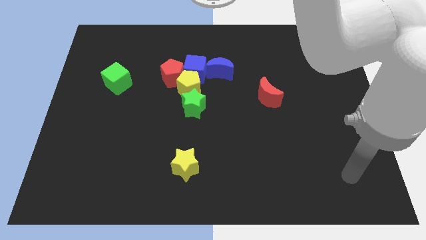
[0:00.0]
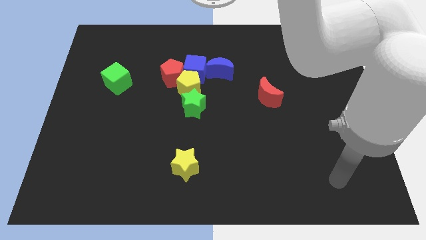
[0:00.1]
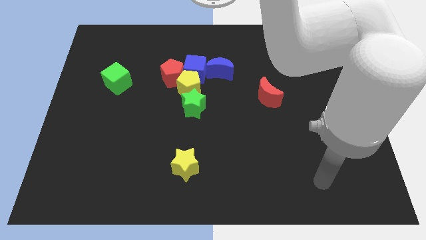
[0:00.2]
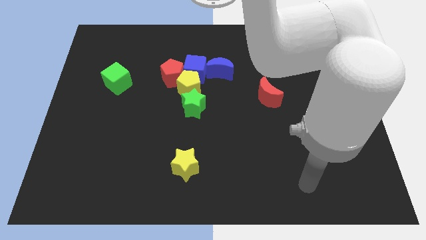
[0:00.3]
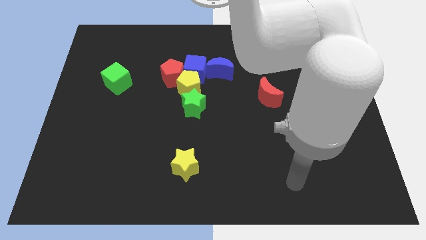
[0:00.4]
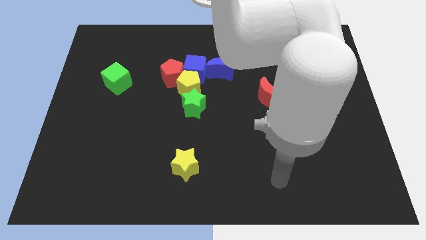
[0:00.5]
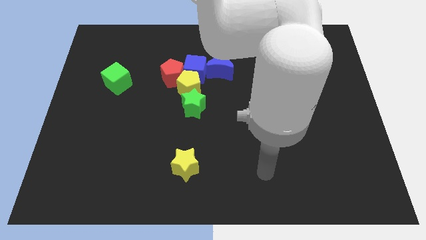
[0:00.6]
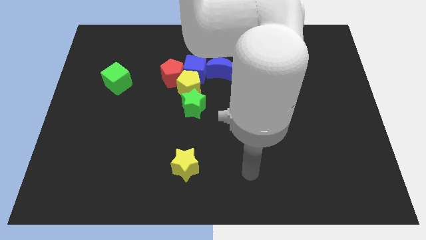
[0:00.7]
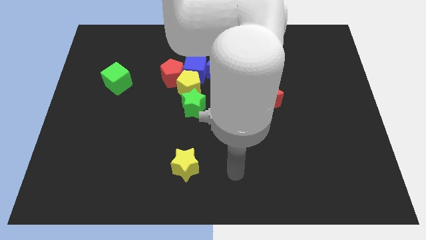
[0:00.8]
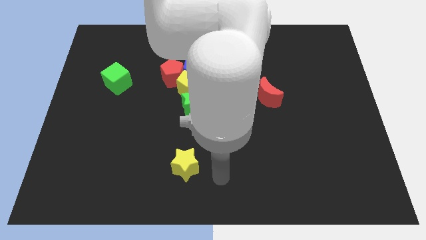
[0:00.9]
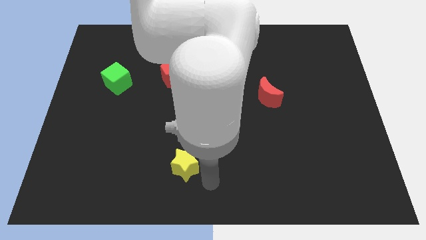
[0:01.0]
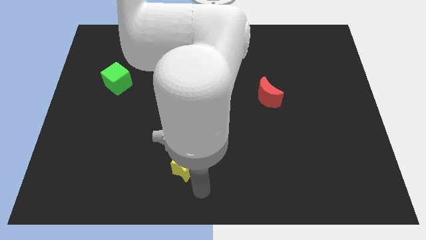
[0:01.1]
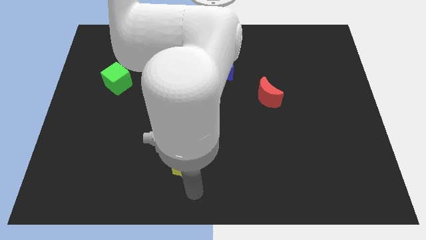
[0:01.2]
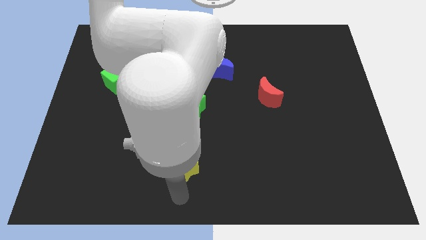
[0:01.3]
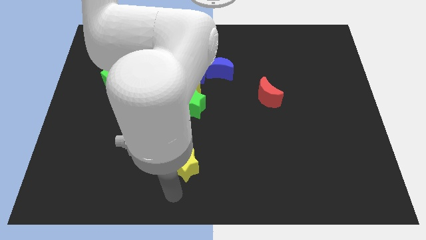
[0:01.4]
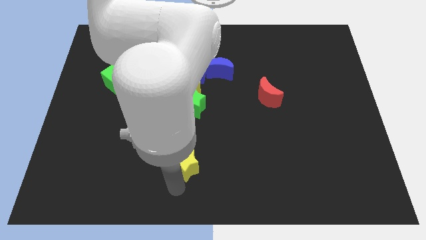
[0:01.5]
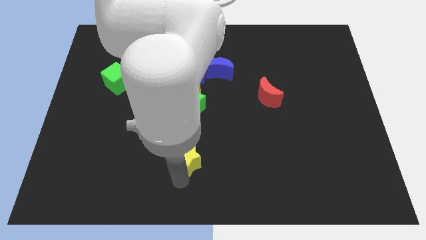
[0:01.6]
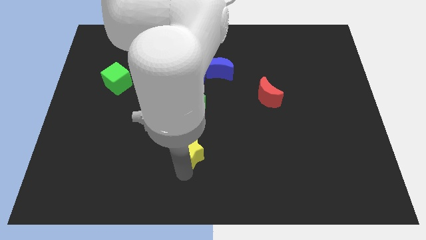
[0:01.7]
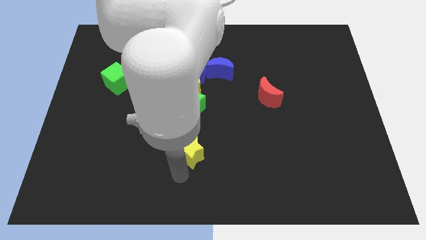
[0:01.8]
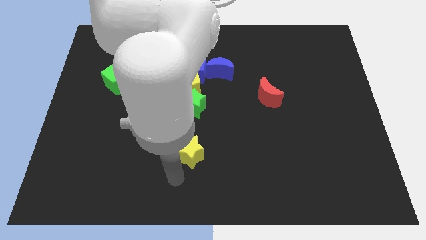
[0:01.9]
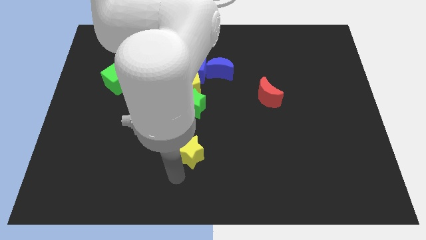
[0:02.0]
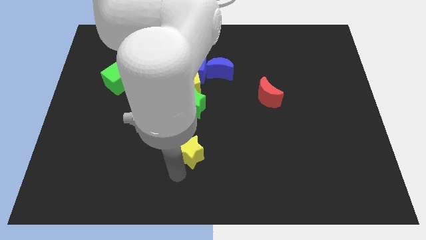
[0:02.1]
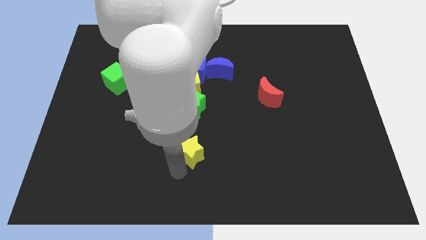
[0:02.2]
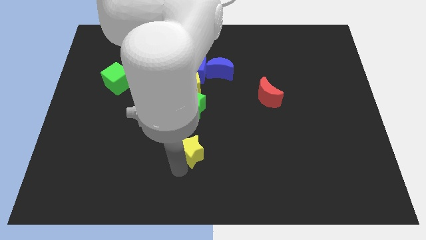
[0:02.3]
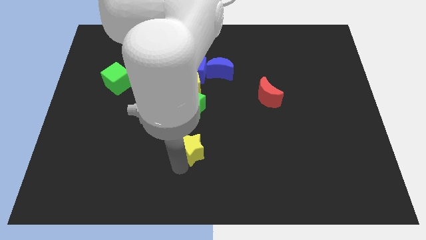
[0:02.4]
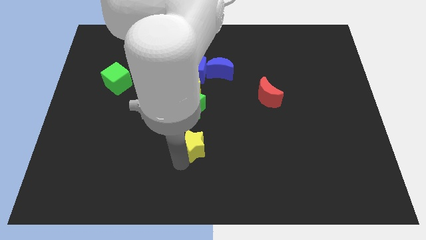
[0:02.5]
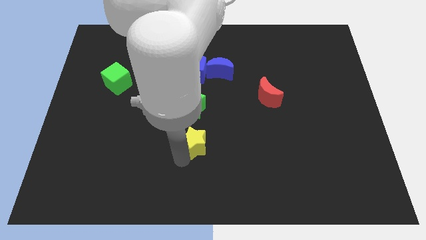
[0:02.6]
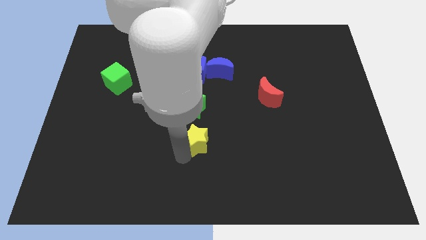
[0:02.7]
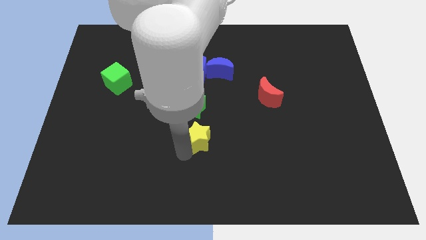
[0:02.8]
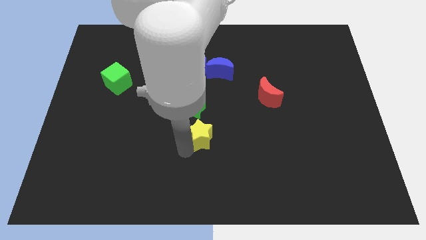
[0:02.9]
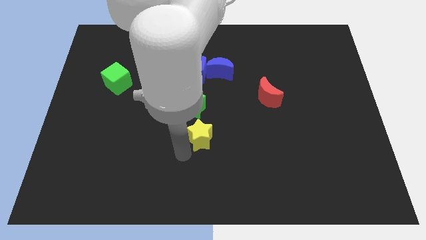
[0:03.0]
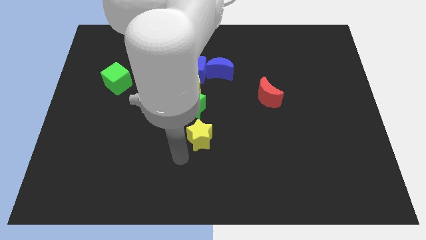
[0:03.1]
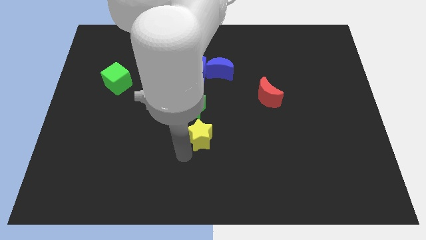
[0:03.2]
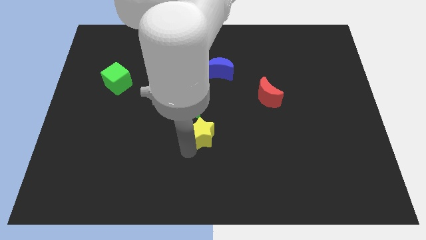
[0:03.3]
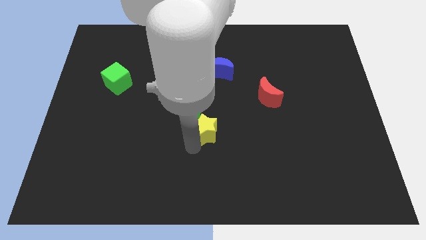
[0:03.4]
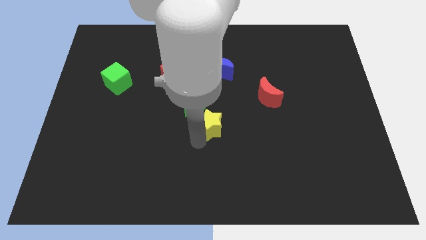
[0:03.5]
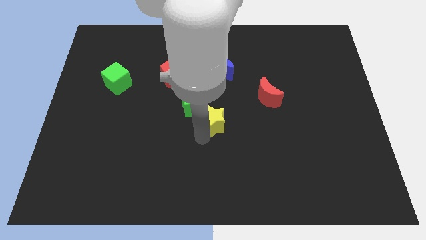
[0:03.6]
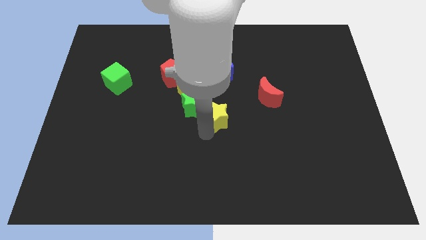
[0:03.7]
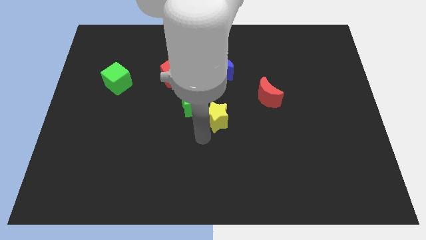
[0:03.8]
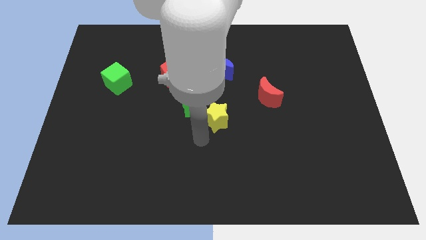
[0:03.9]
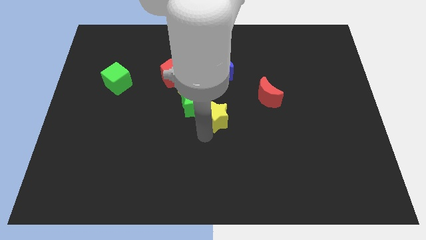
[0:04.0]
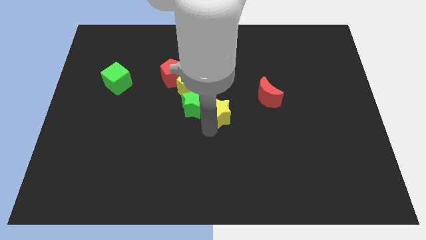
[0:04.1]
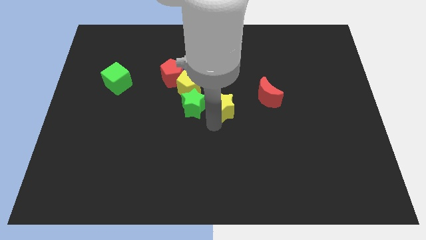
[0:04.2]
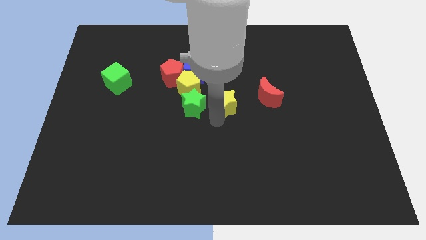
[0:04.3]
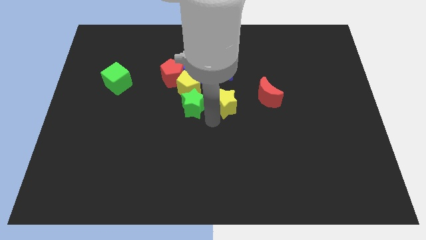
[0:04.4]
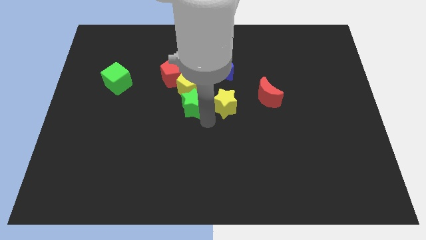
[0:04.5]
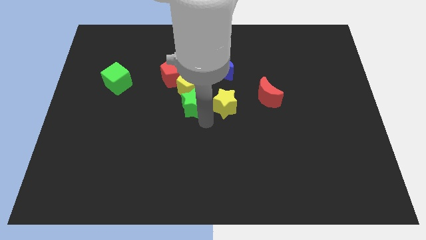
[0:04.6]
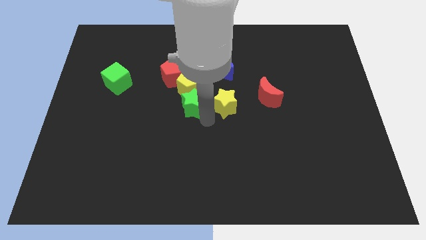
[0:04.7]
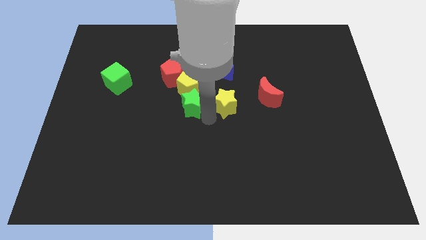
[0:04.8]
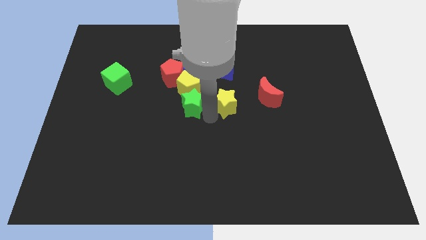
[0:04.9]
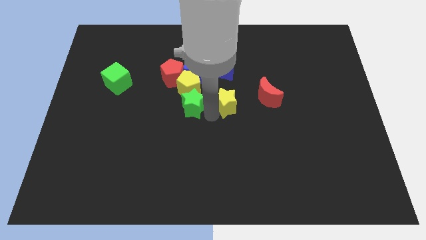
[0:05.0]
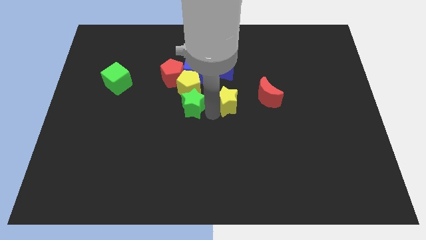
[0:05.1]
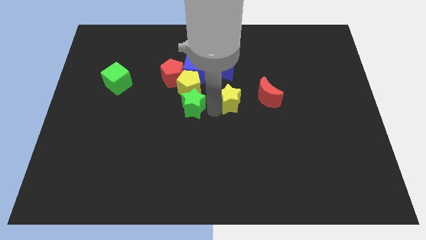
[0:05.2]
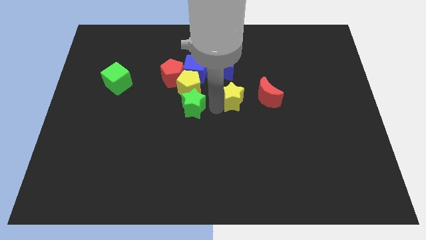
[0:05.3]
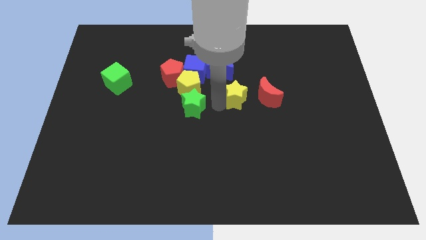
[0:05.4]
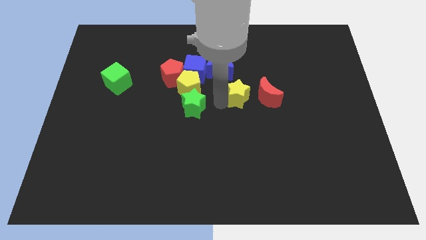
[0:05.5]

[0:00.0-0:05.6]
move the yellow star upwards and then to the right

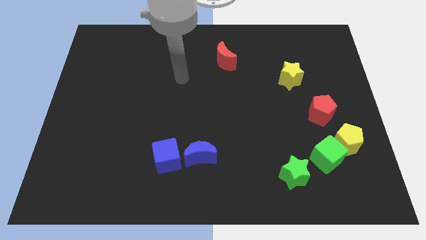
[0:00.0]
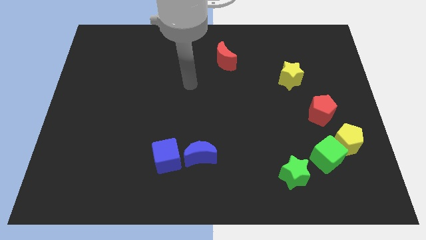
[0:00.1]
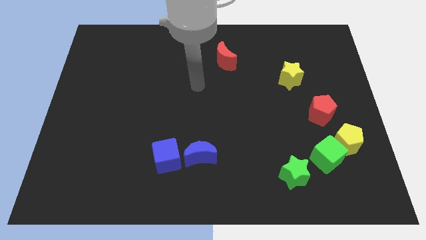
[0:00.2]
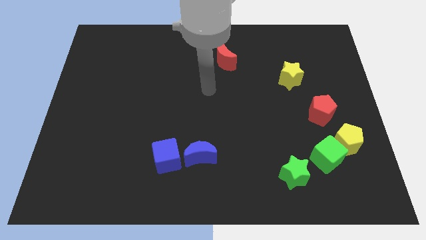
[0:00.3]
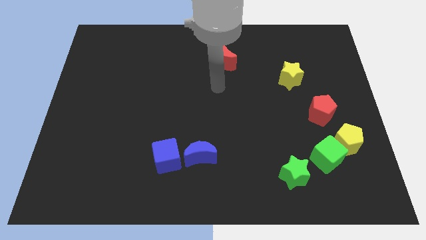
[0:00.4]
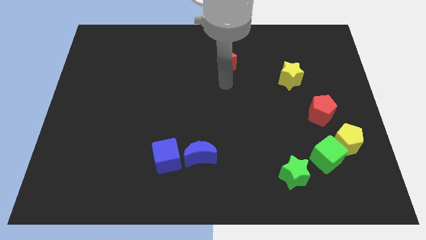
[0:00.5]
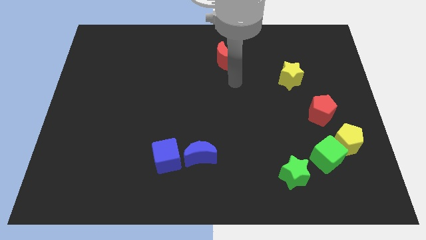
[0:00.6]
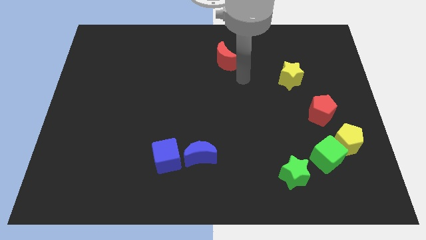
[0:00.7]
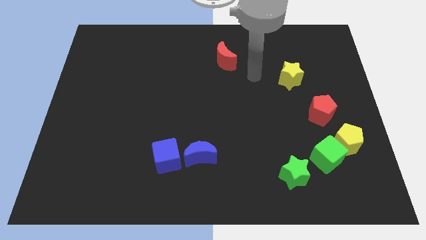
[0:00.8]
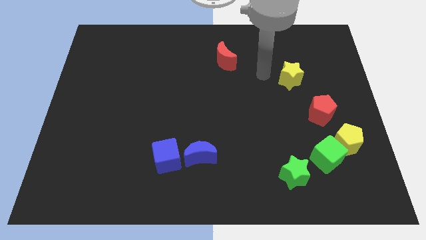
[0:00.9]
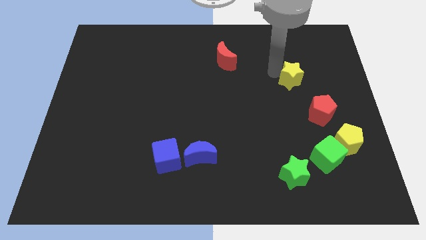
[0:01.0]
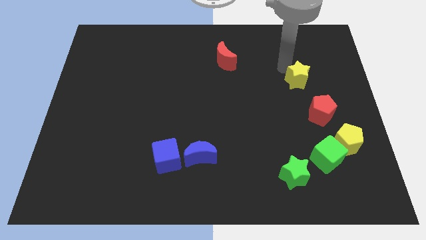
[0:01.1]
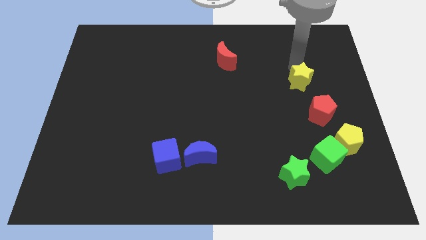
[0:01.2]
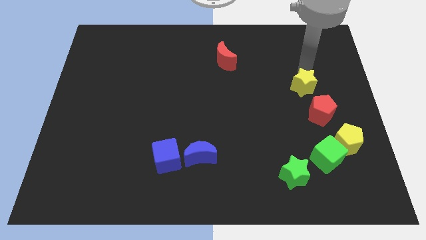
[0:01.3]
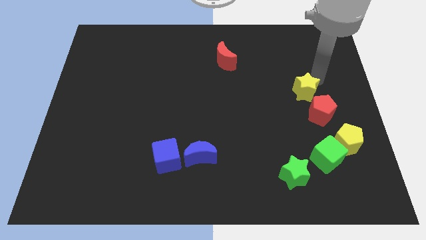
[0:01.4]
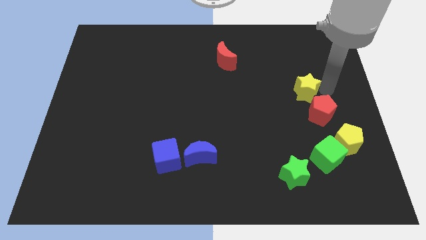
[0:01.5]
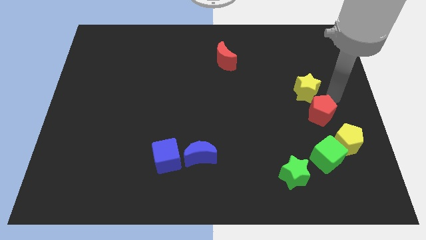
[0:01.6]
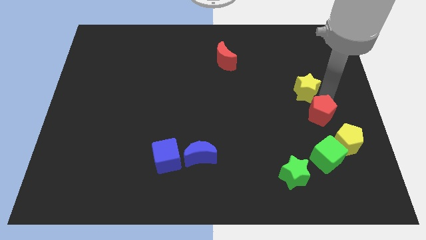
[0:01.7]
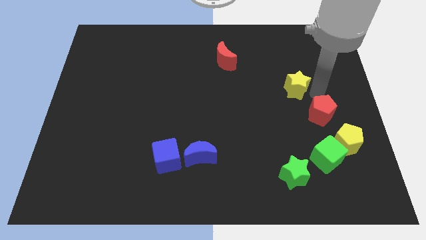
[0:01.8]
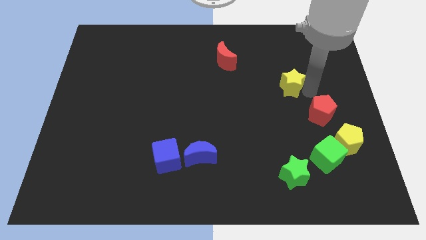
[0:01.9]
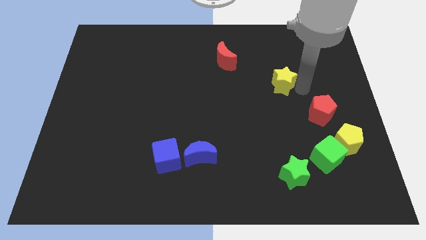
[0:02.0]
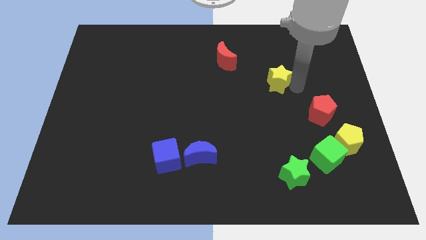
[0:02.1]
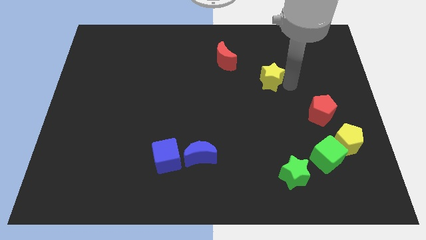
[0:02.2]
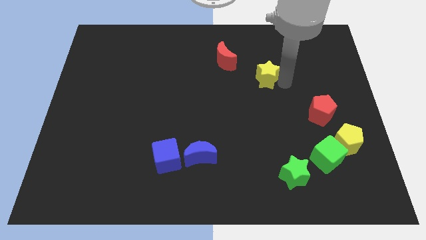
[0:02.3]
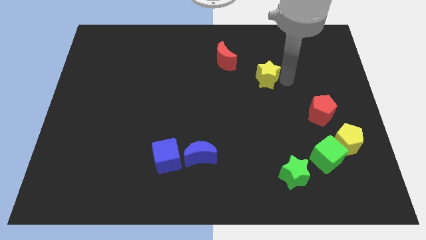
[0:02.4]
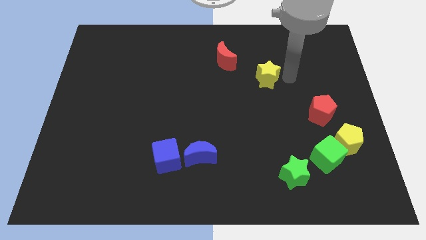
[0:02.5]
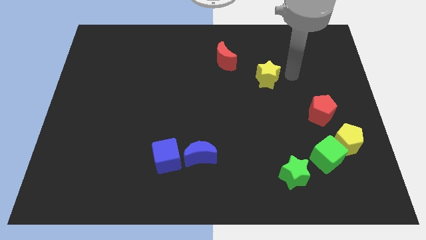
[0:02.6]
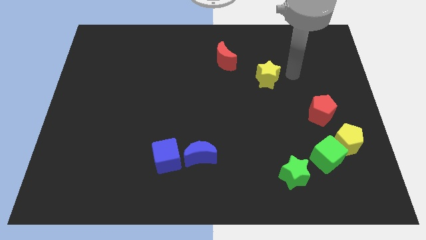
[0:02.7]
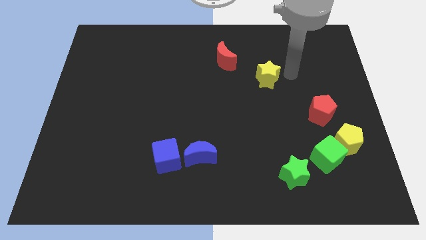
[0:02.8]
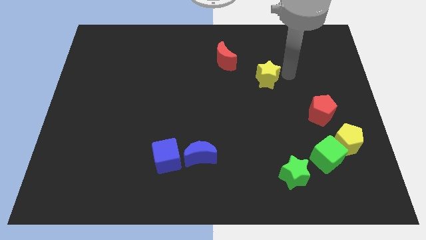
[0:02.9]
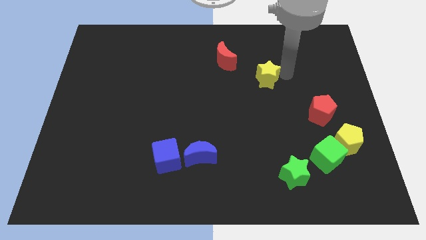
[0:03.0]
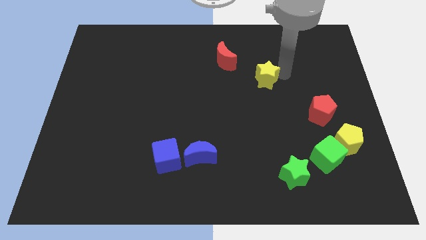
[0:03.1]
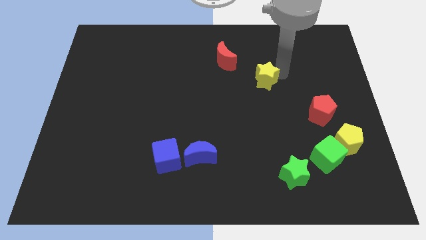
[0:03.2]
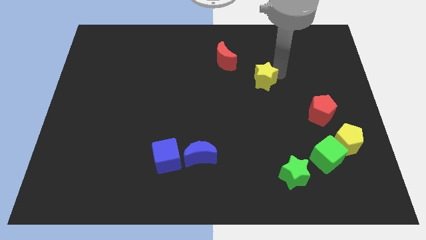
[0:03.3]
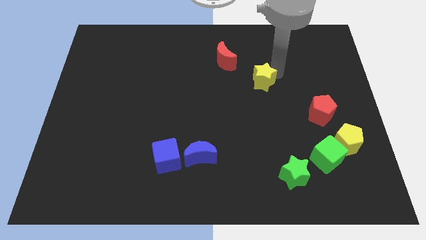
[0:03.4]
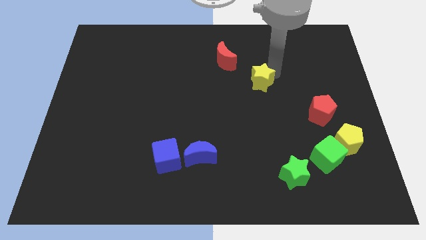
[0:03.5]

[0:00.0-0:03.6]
push the yellow star a bit to the left
